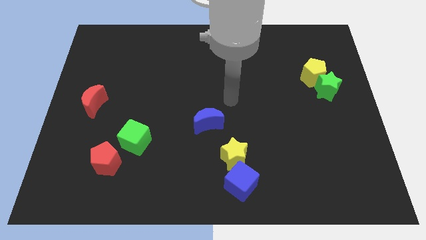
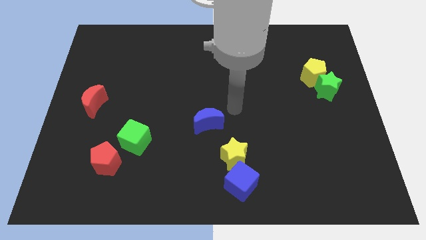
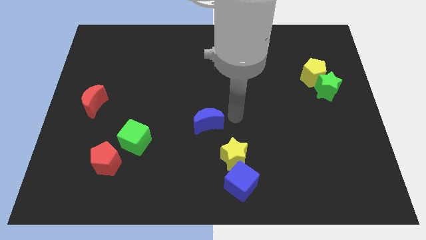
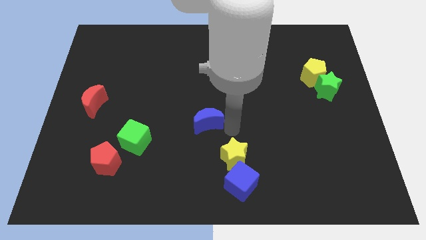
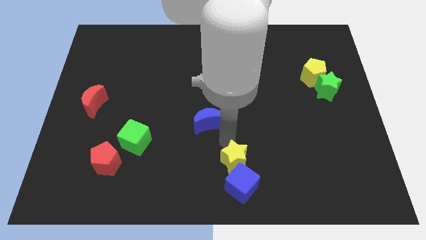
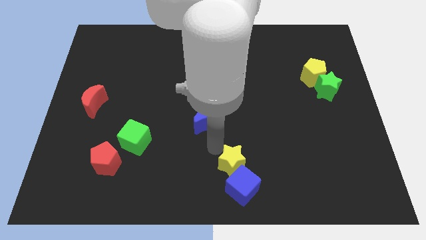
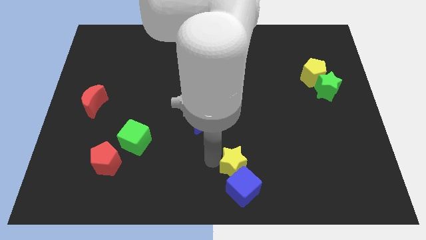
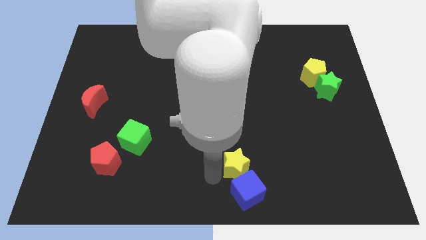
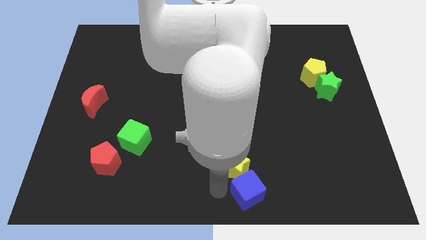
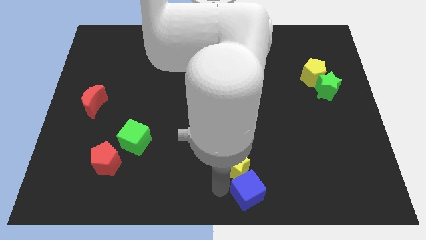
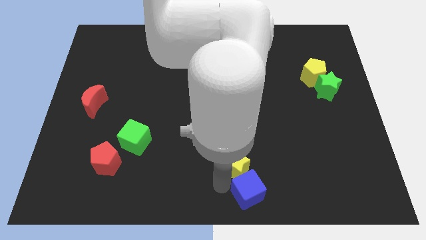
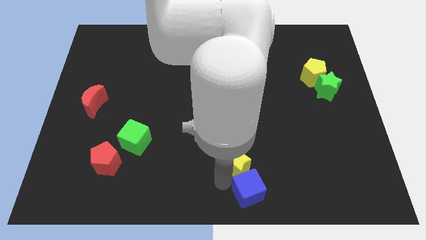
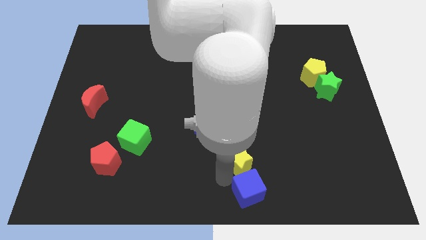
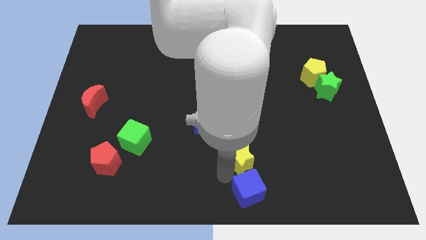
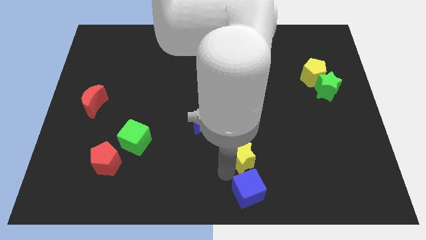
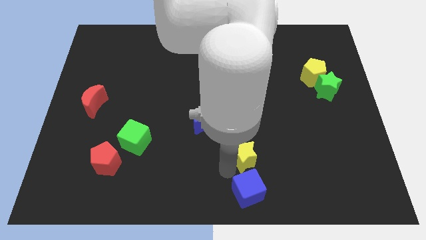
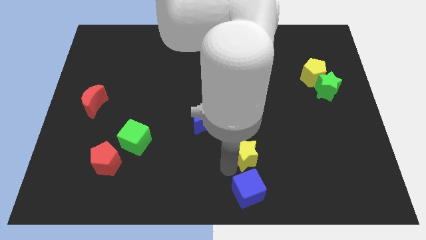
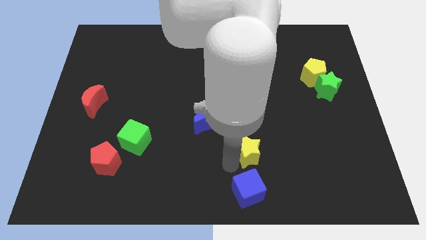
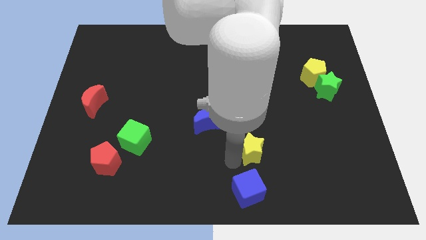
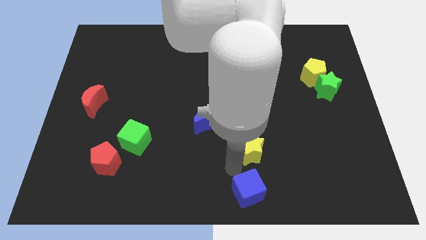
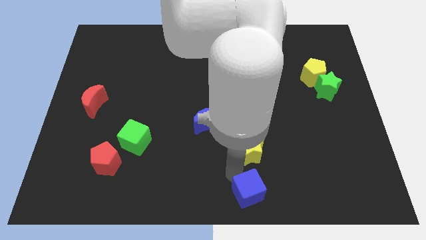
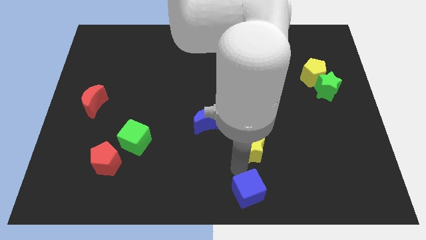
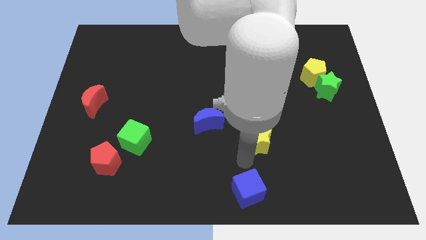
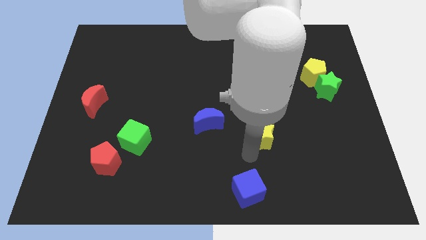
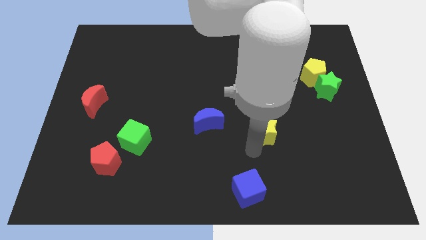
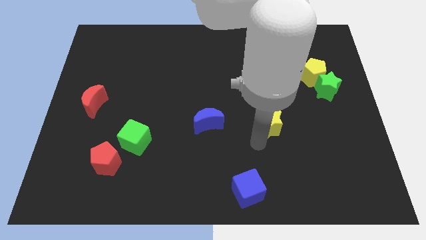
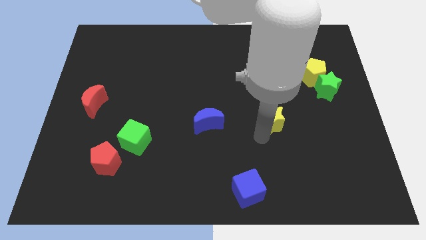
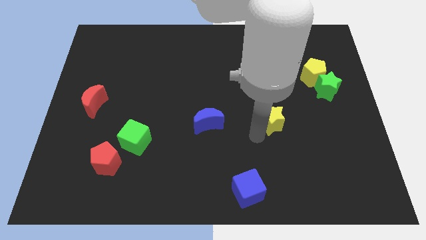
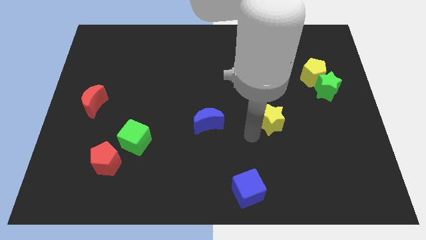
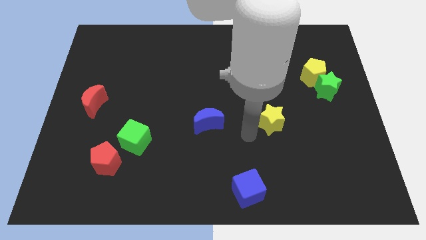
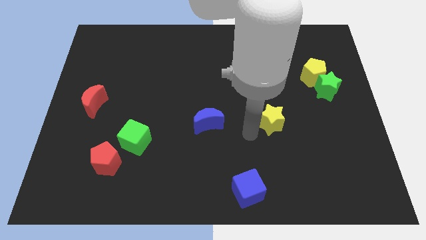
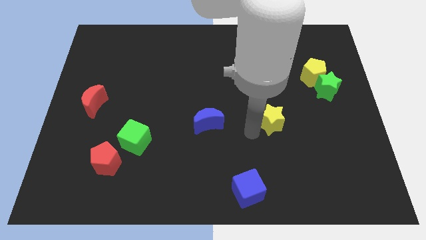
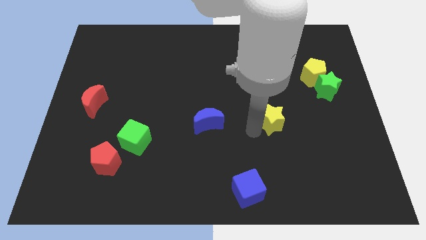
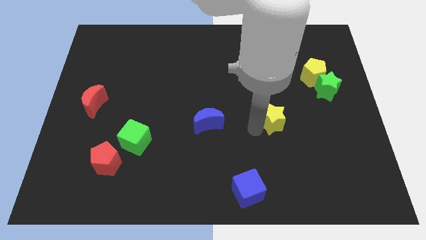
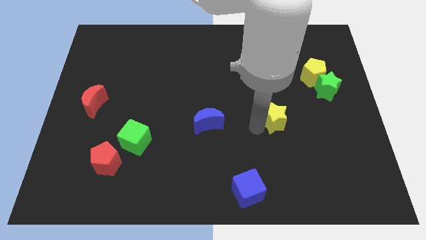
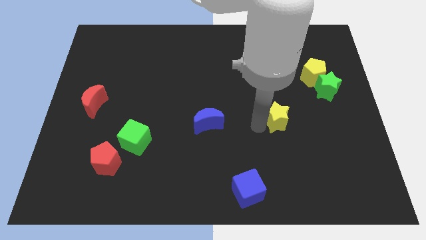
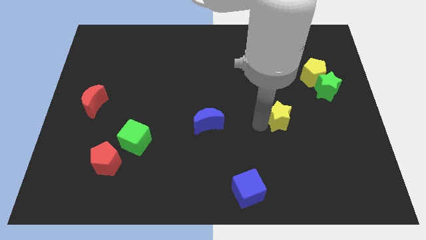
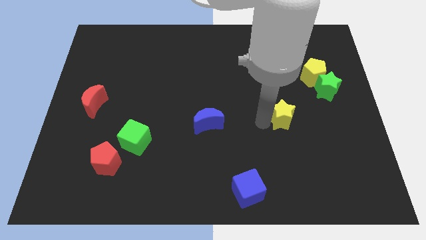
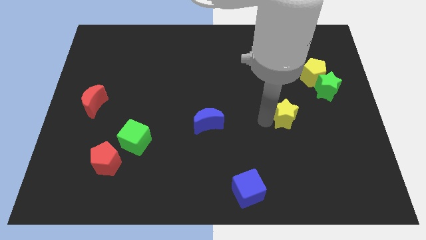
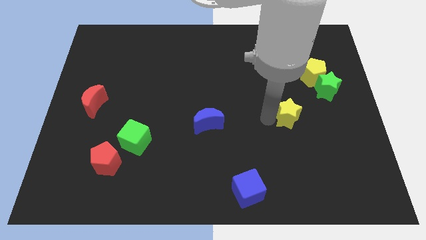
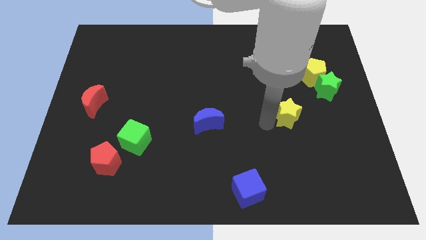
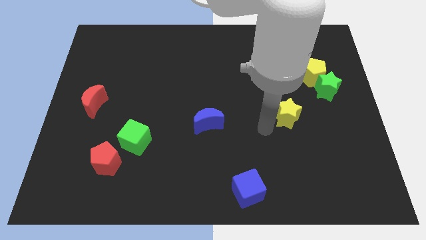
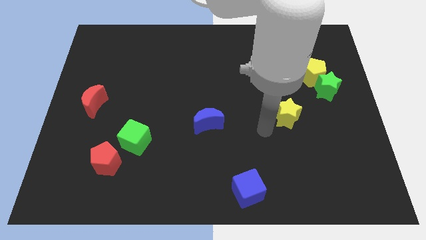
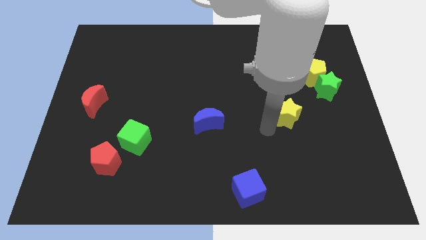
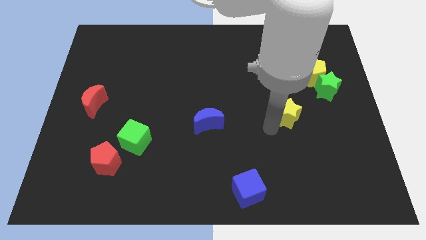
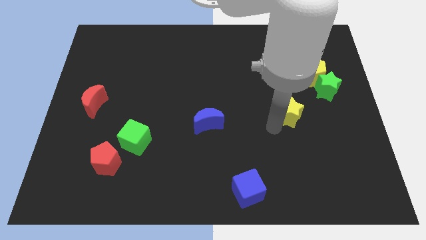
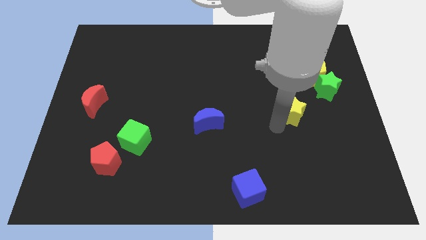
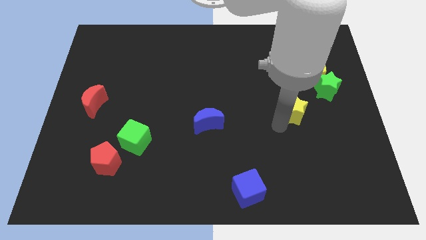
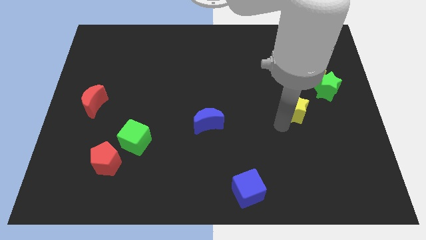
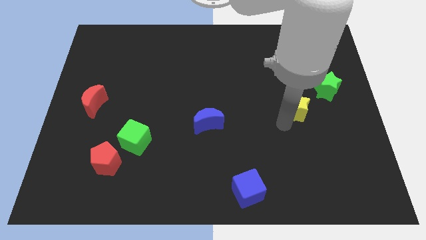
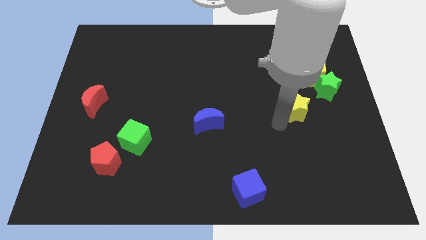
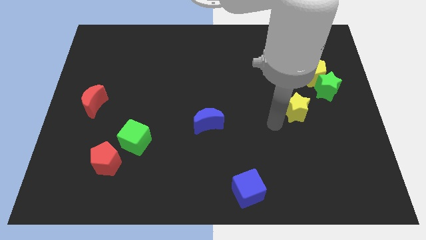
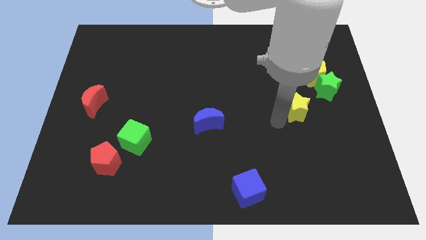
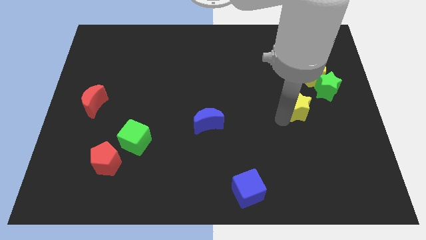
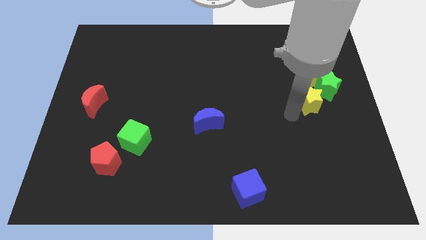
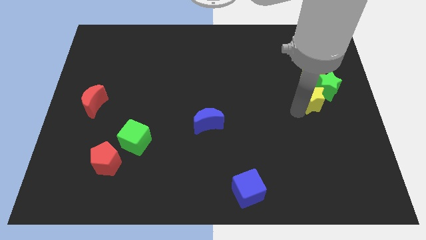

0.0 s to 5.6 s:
put the yellow star towards the green star

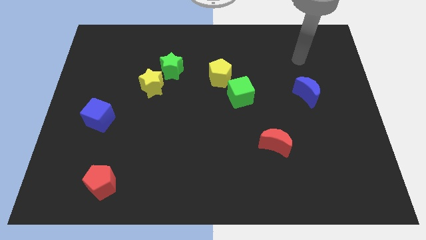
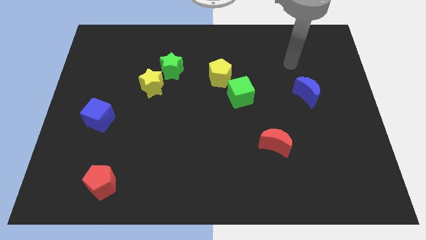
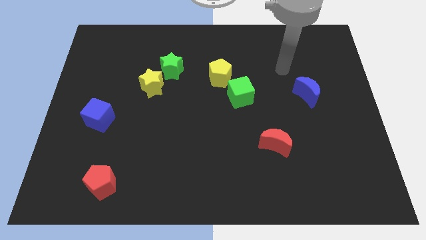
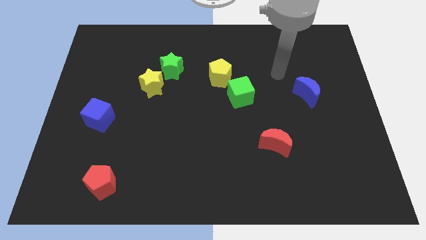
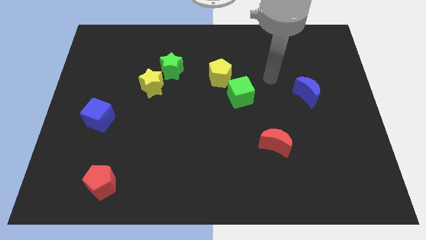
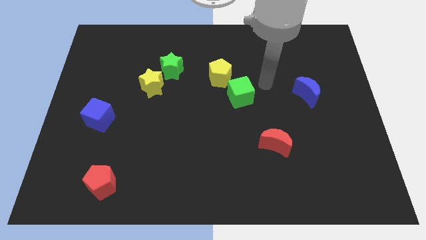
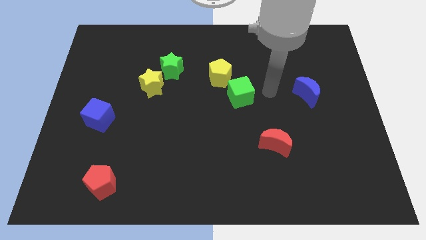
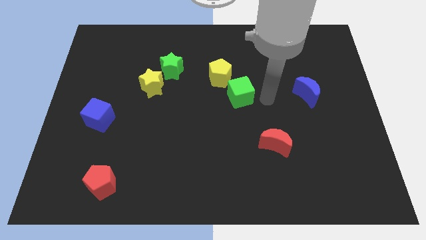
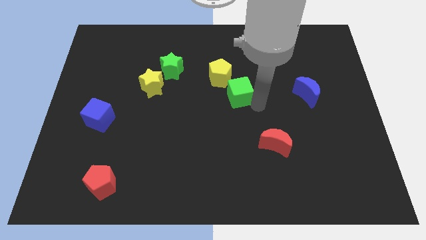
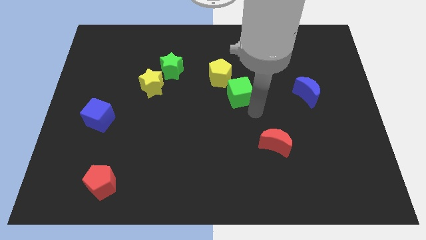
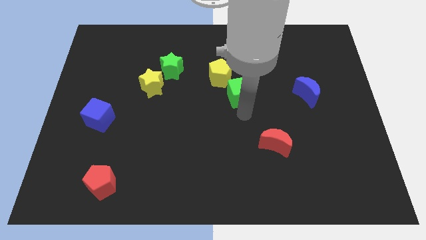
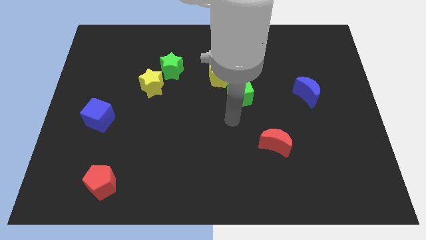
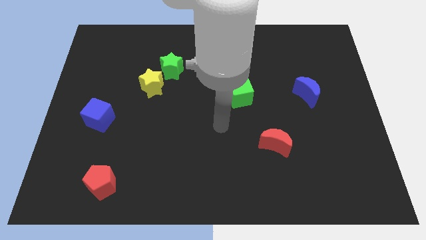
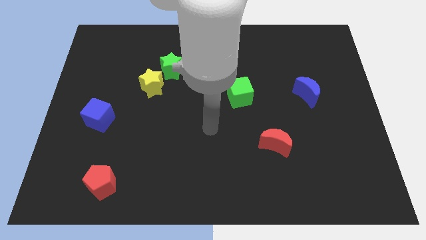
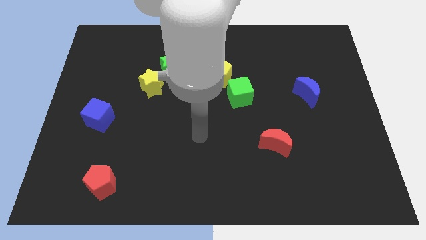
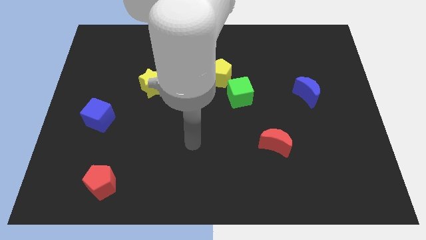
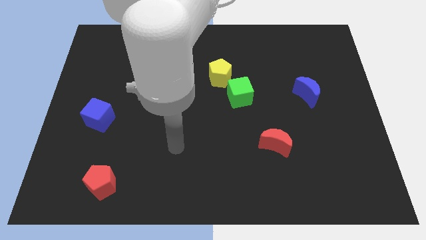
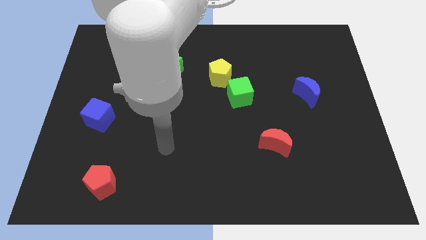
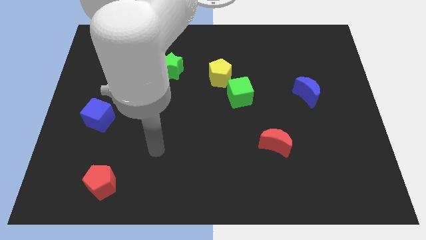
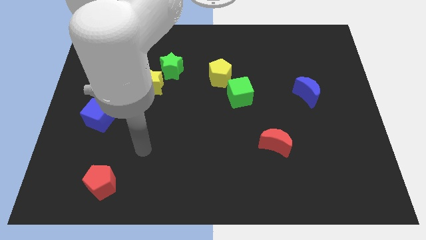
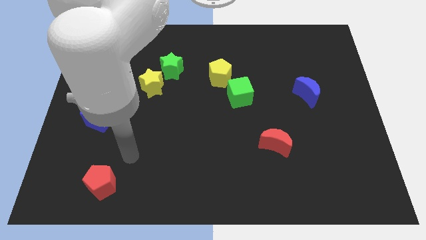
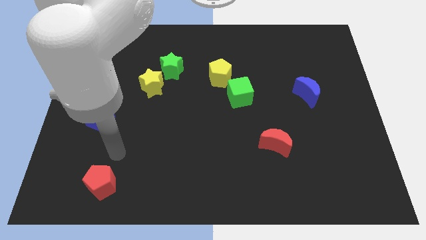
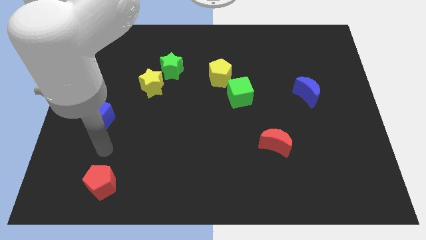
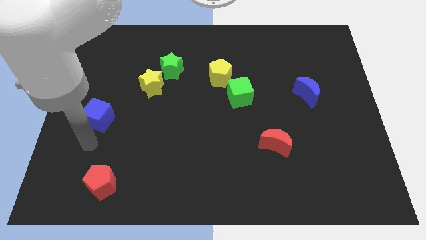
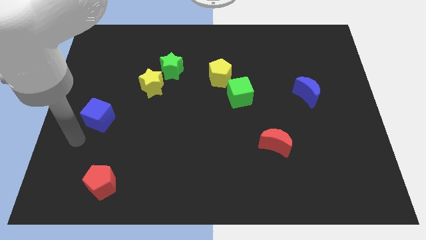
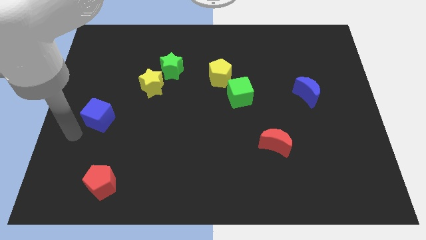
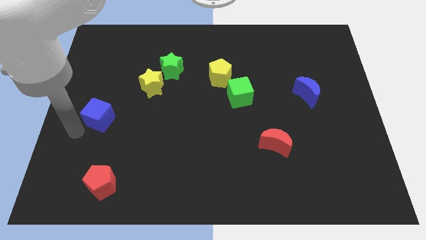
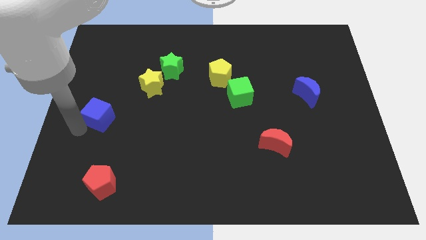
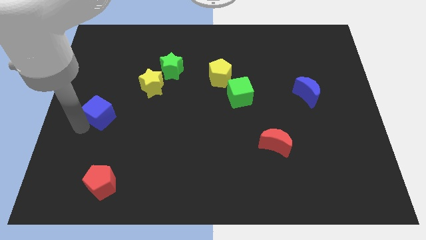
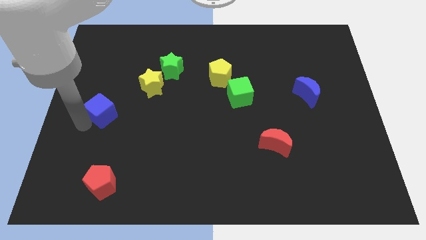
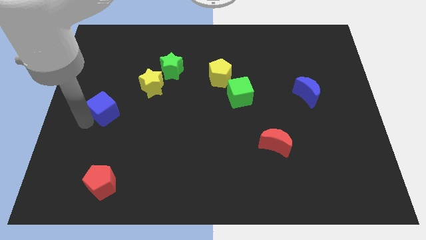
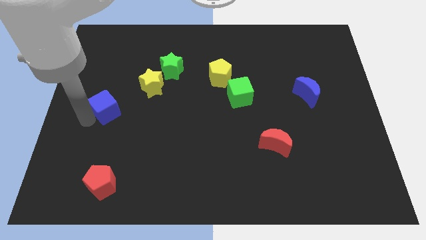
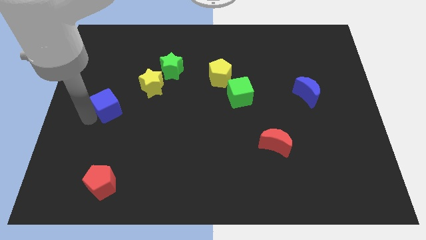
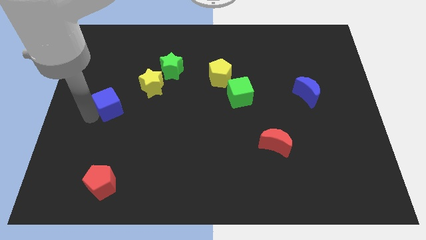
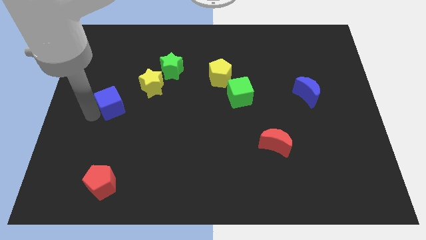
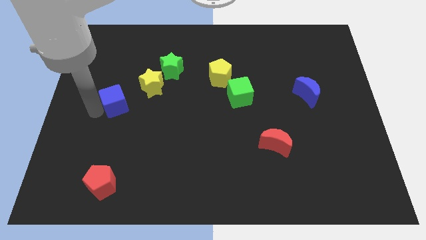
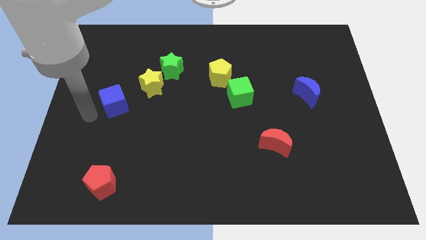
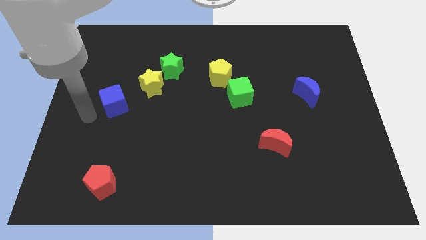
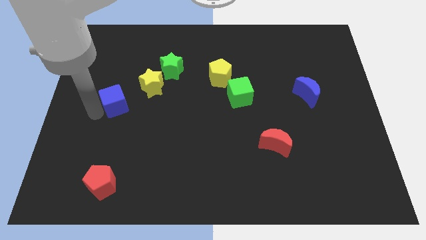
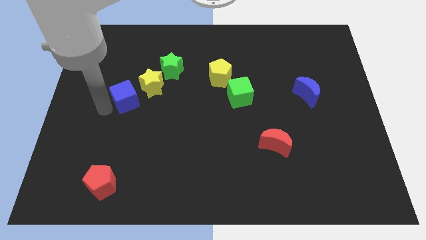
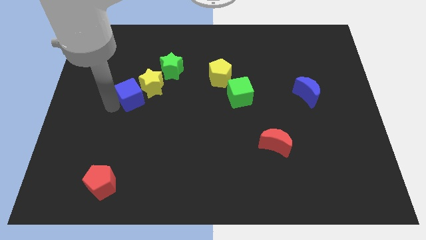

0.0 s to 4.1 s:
push the blue cube close to the yellow star
